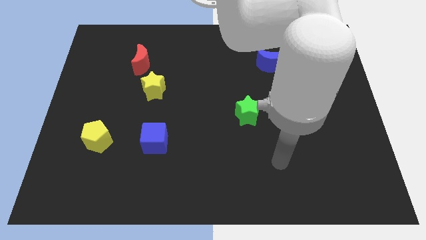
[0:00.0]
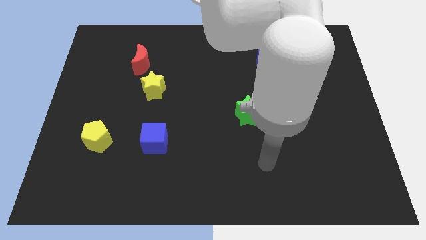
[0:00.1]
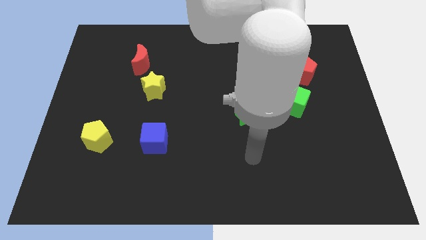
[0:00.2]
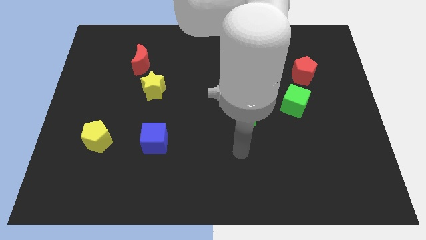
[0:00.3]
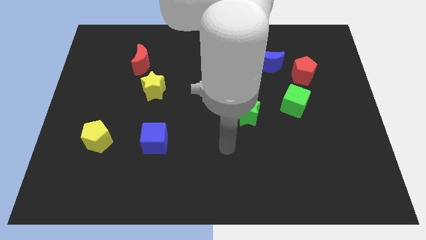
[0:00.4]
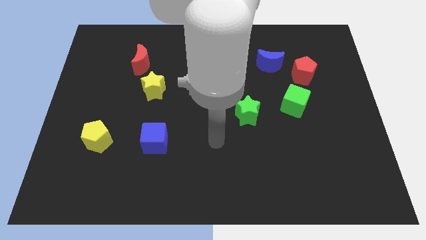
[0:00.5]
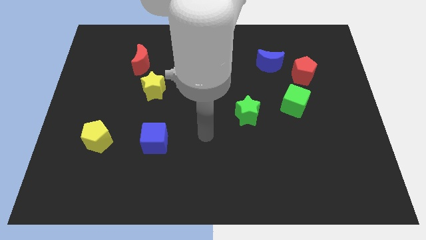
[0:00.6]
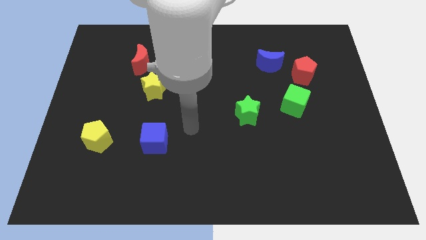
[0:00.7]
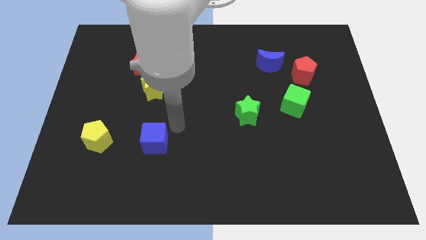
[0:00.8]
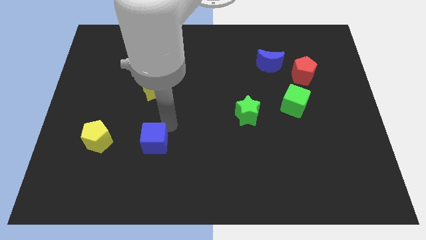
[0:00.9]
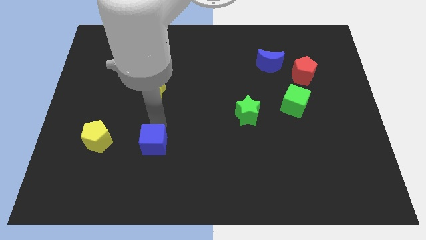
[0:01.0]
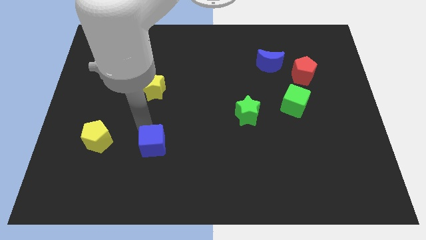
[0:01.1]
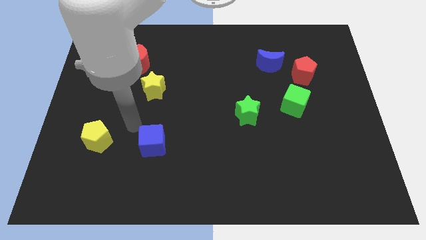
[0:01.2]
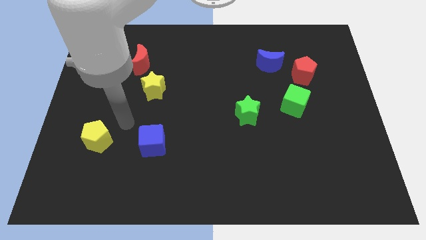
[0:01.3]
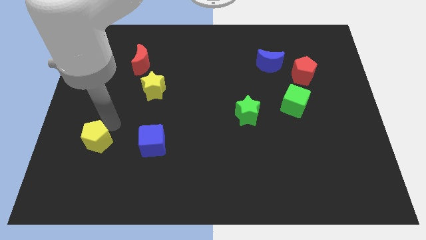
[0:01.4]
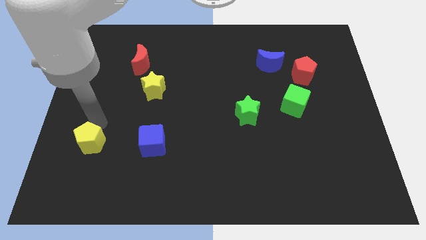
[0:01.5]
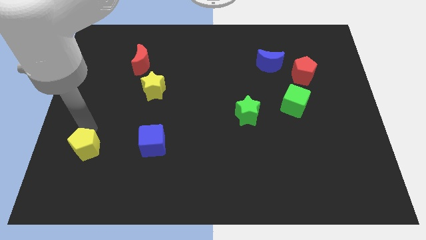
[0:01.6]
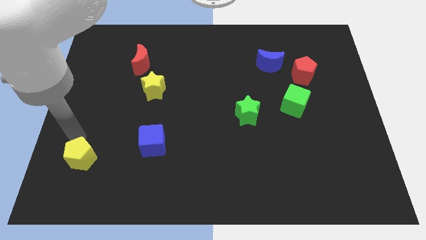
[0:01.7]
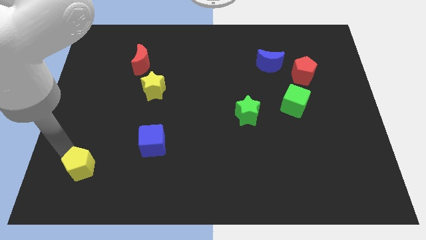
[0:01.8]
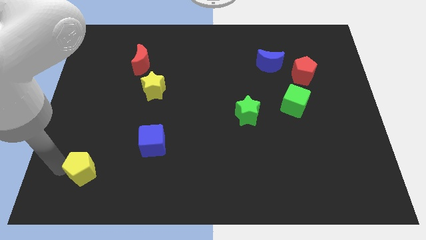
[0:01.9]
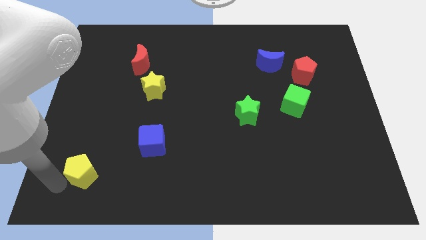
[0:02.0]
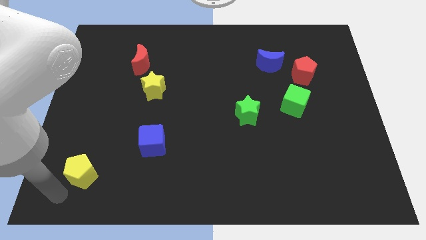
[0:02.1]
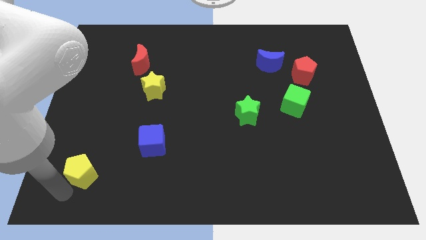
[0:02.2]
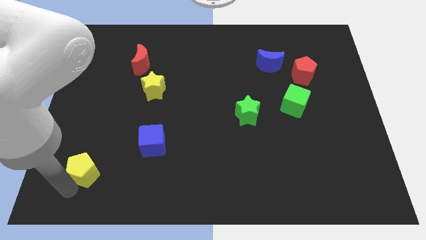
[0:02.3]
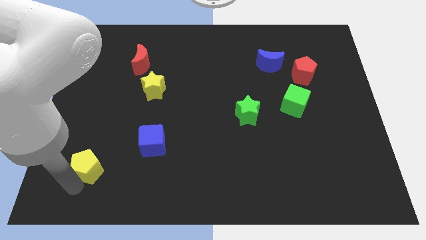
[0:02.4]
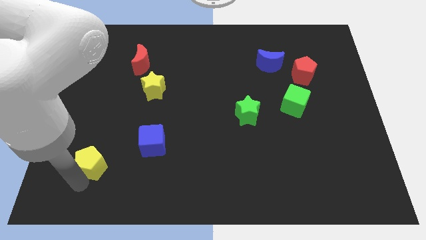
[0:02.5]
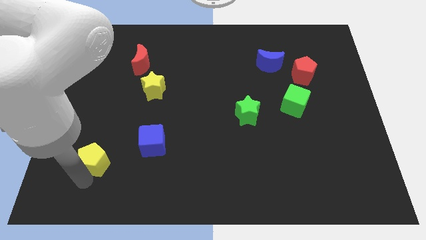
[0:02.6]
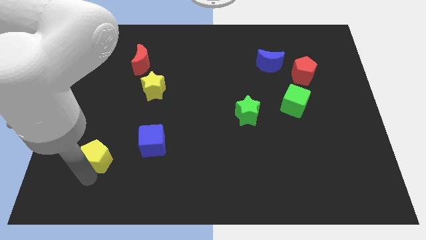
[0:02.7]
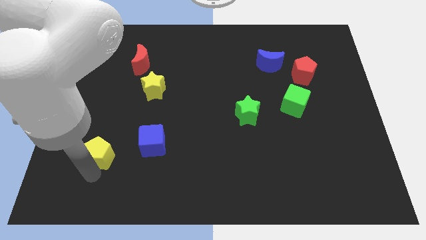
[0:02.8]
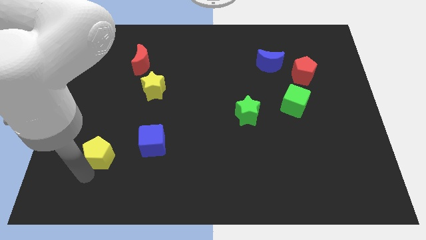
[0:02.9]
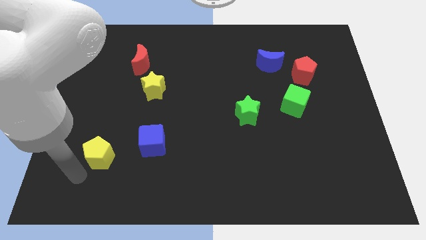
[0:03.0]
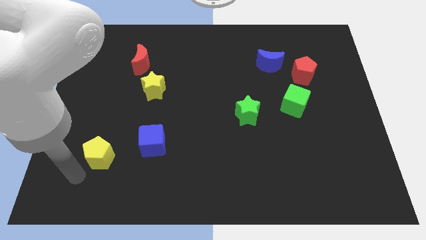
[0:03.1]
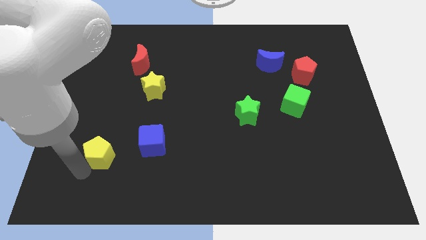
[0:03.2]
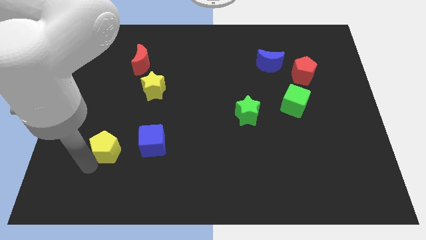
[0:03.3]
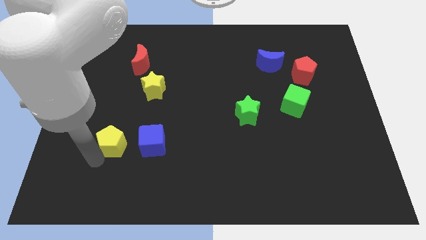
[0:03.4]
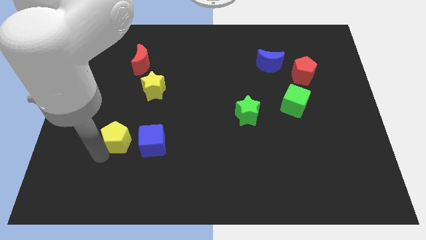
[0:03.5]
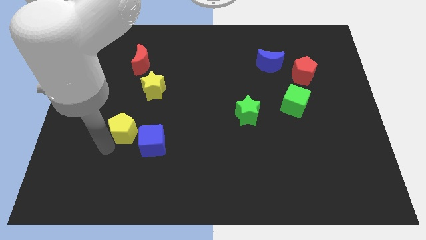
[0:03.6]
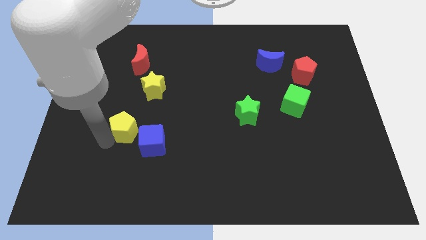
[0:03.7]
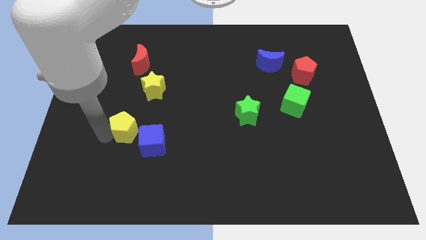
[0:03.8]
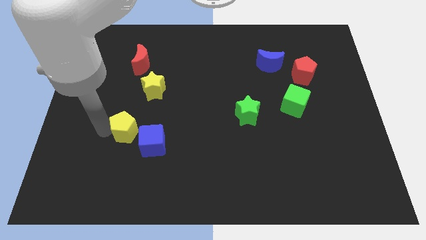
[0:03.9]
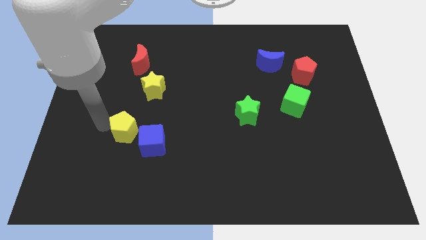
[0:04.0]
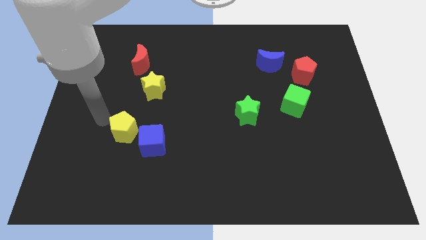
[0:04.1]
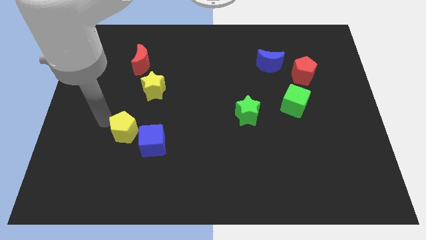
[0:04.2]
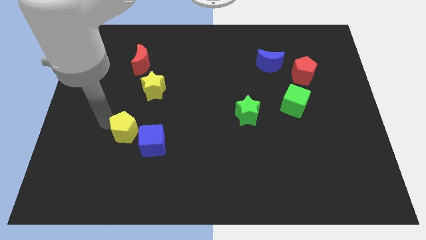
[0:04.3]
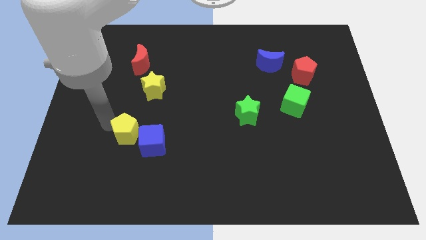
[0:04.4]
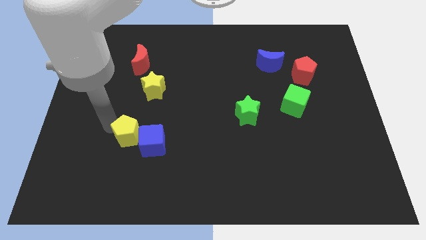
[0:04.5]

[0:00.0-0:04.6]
move the yellow pentagon towards the blue cube

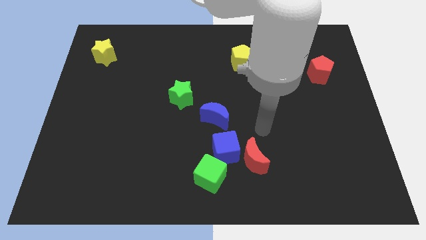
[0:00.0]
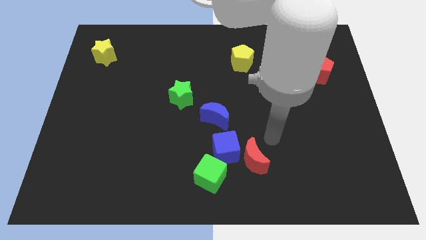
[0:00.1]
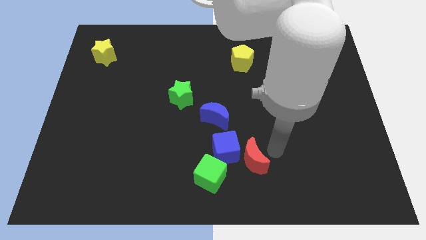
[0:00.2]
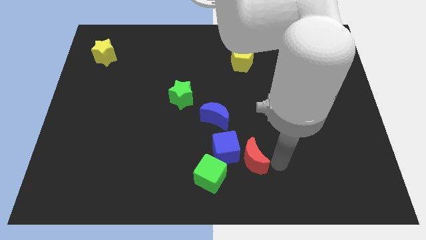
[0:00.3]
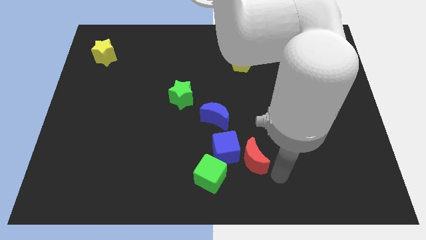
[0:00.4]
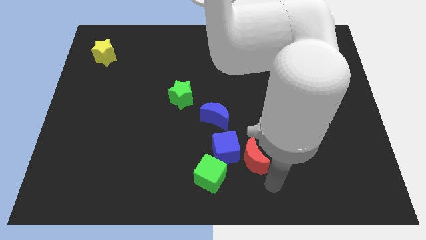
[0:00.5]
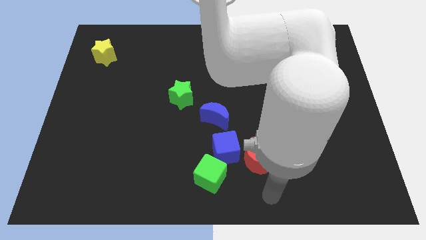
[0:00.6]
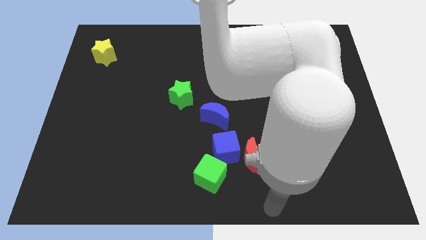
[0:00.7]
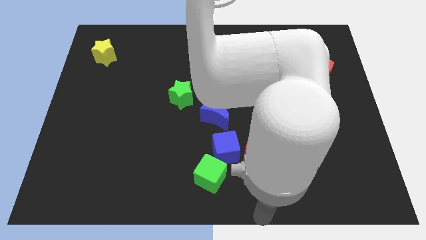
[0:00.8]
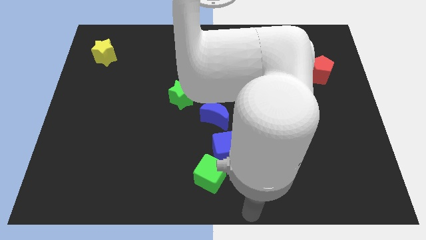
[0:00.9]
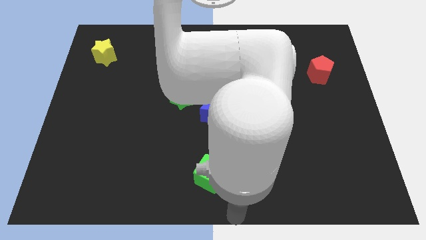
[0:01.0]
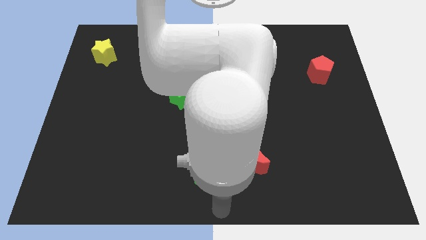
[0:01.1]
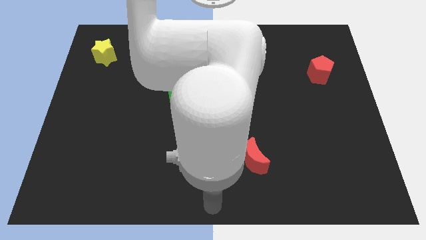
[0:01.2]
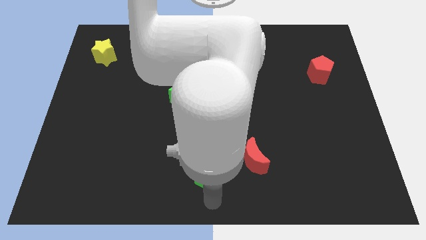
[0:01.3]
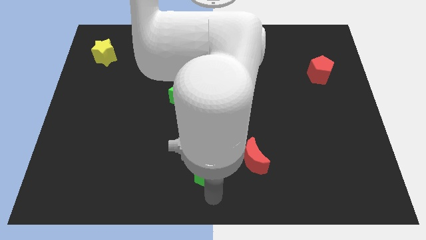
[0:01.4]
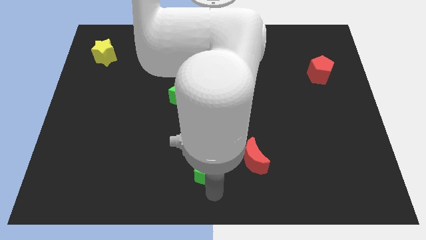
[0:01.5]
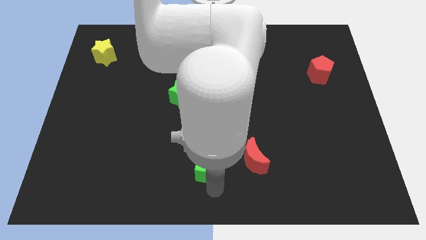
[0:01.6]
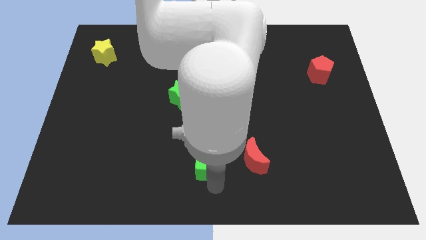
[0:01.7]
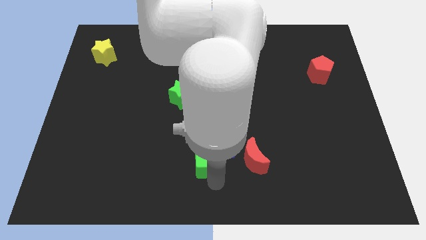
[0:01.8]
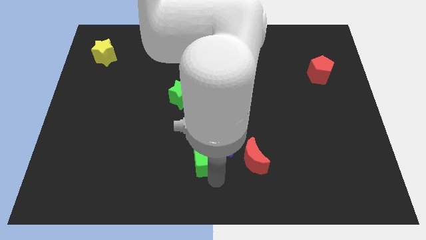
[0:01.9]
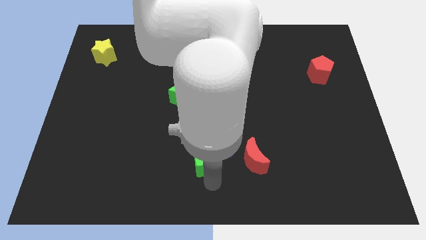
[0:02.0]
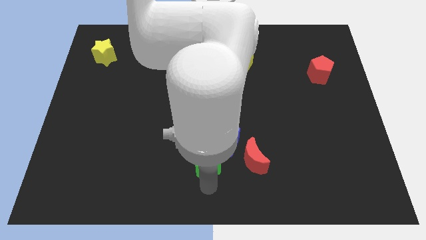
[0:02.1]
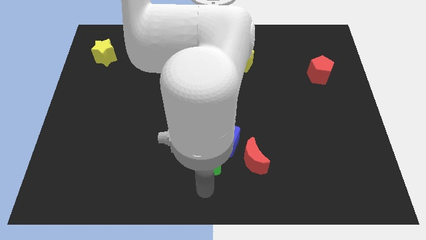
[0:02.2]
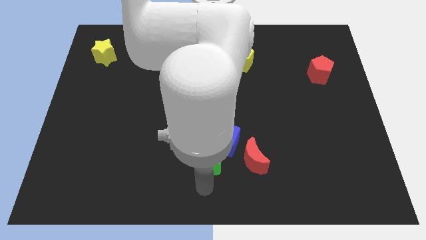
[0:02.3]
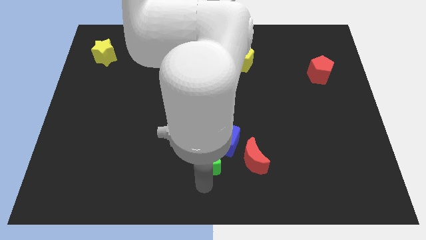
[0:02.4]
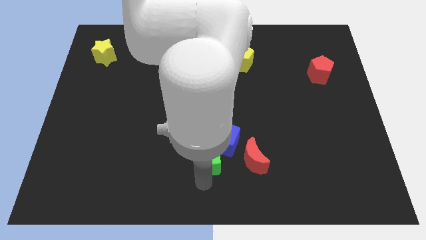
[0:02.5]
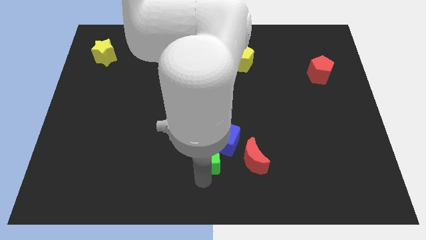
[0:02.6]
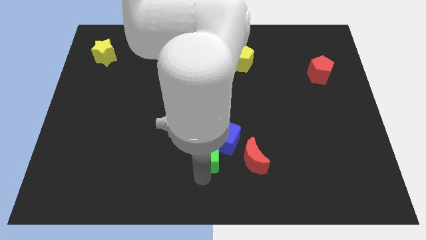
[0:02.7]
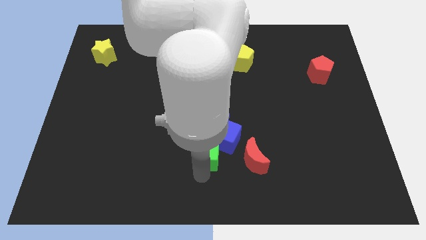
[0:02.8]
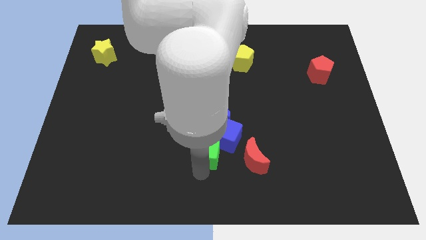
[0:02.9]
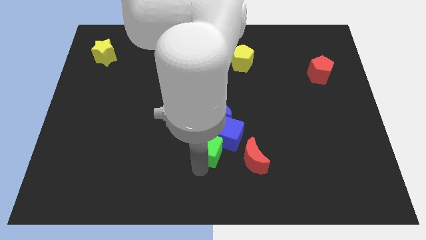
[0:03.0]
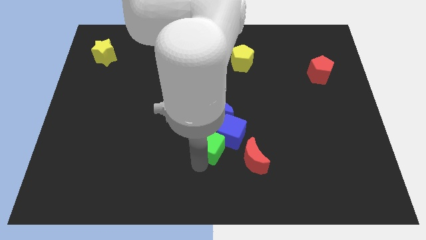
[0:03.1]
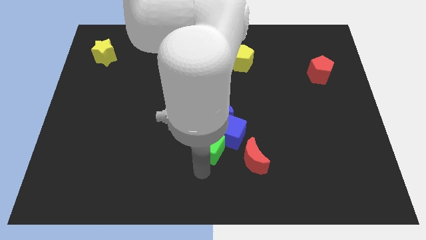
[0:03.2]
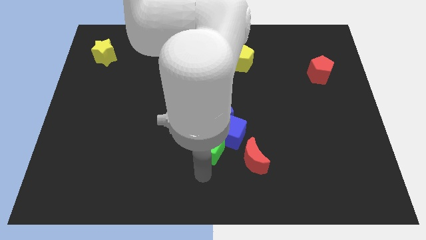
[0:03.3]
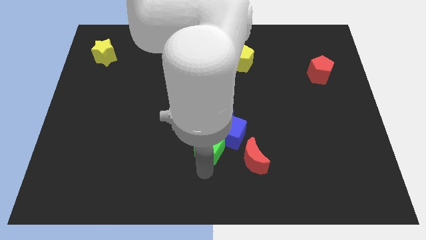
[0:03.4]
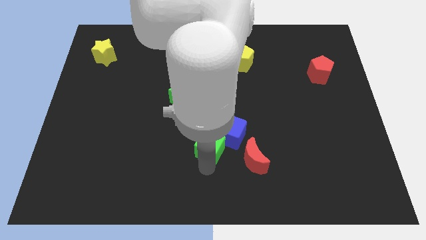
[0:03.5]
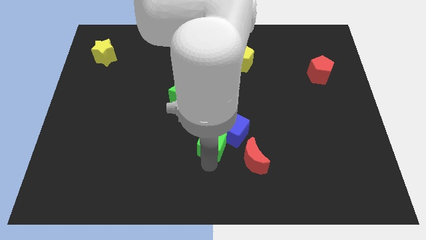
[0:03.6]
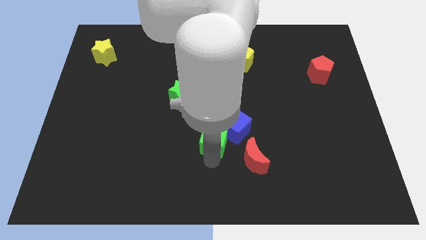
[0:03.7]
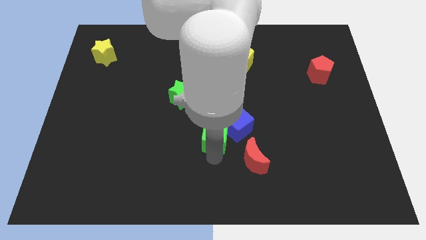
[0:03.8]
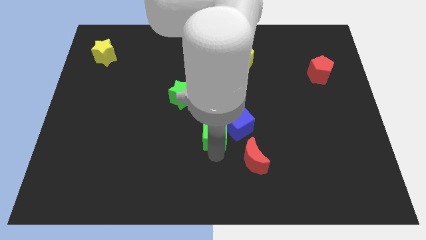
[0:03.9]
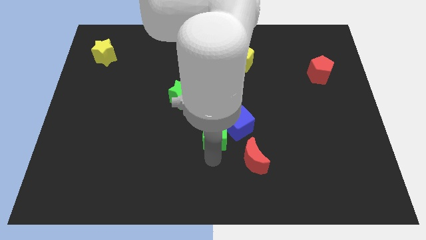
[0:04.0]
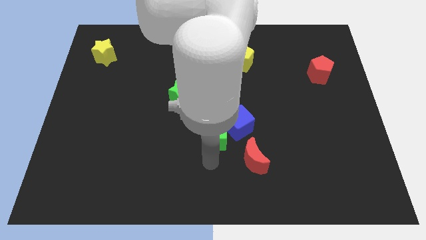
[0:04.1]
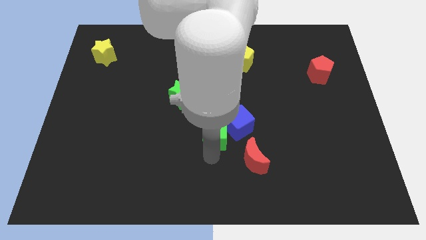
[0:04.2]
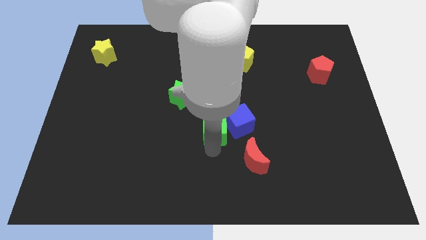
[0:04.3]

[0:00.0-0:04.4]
push the green cube towards the blue moon
